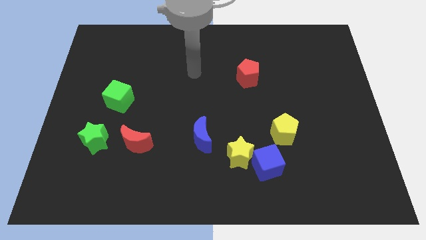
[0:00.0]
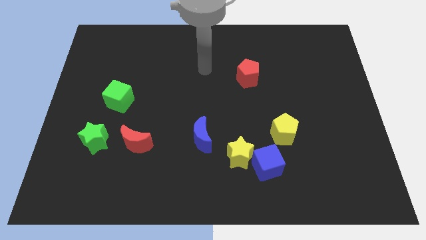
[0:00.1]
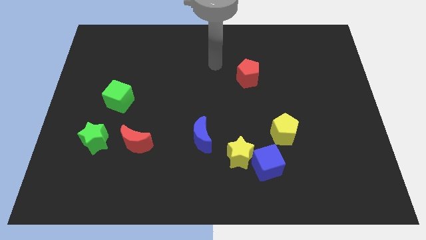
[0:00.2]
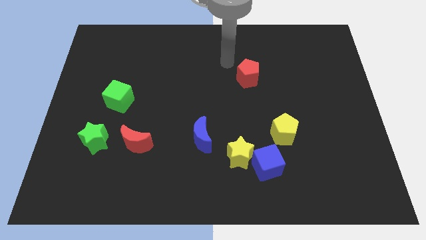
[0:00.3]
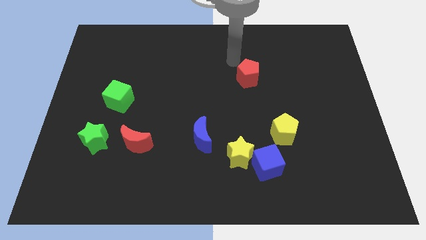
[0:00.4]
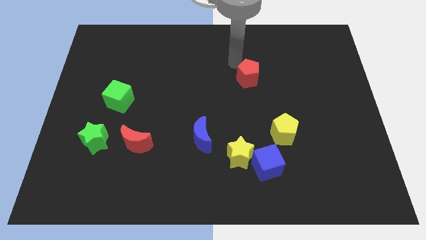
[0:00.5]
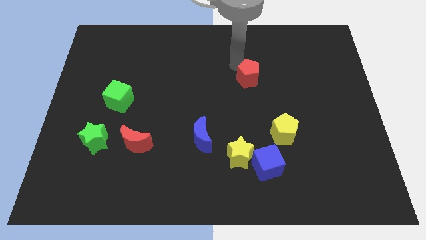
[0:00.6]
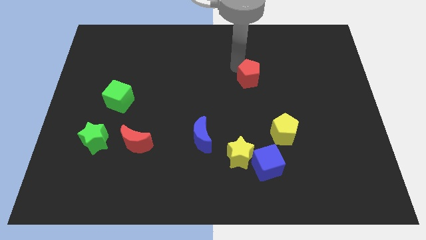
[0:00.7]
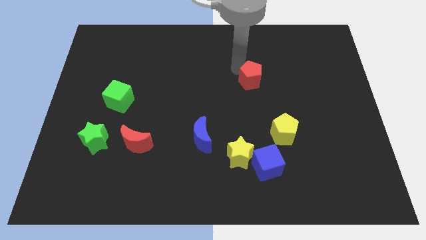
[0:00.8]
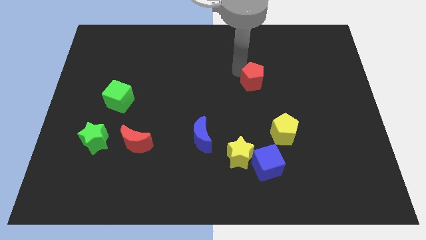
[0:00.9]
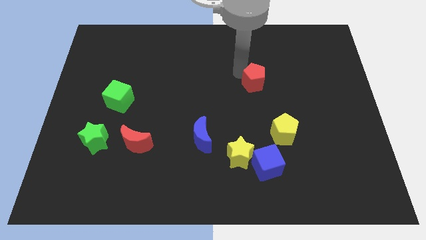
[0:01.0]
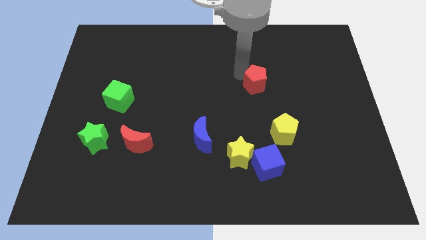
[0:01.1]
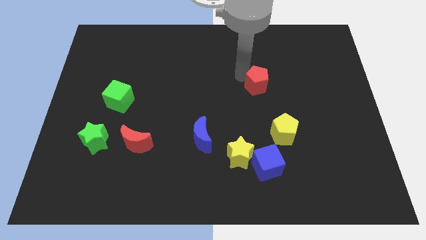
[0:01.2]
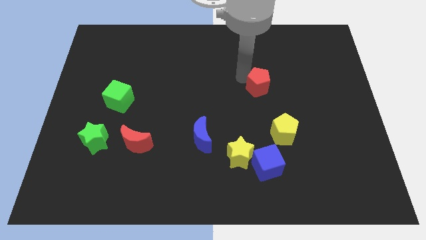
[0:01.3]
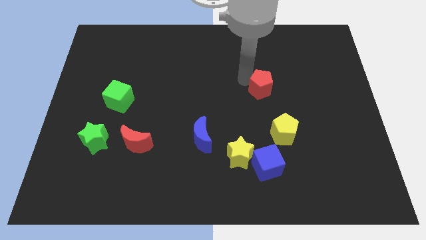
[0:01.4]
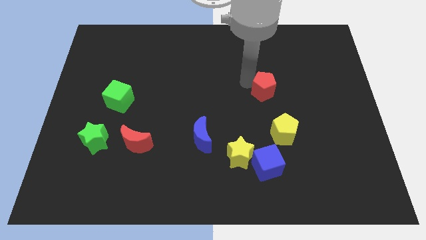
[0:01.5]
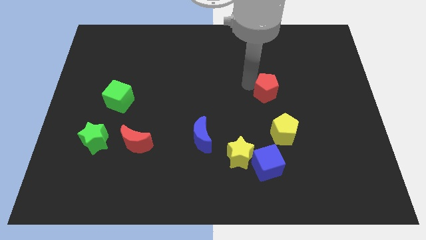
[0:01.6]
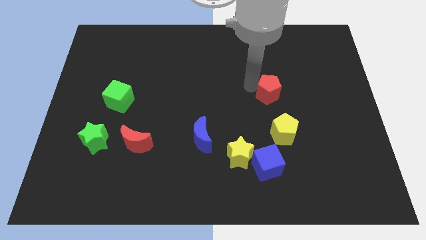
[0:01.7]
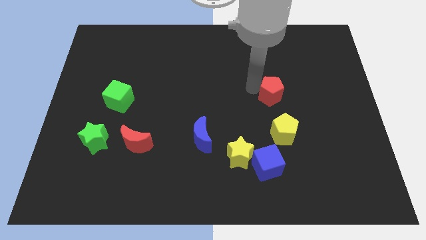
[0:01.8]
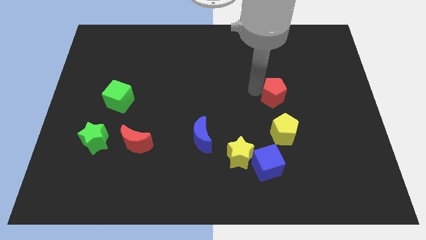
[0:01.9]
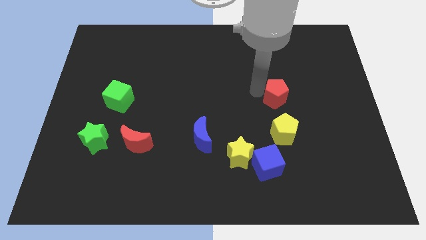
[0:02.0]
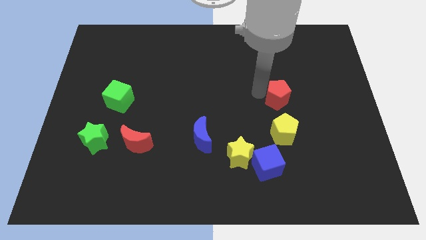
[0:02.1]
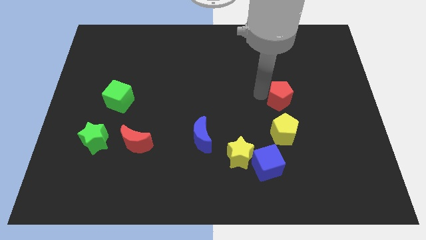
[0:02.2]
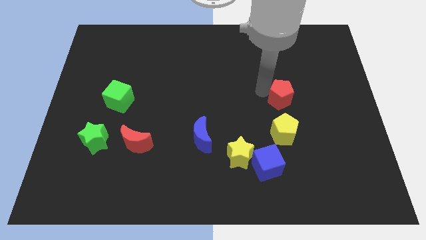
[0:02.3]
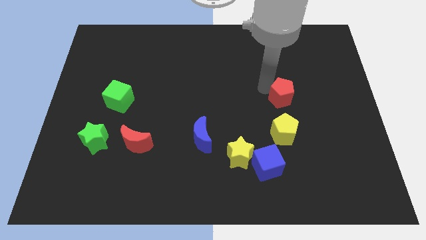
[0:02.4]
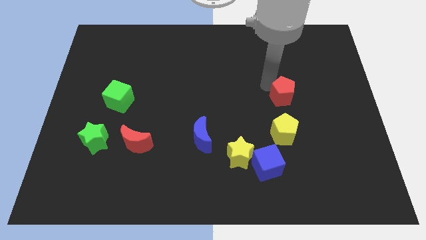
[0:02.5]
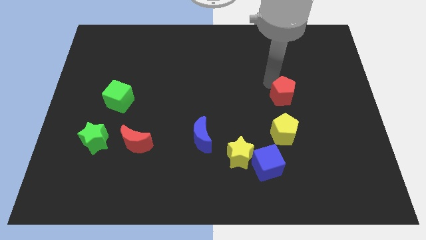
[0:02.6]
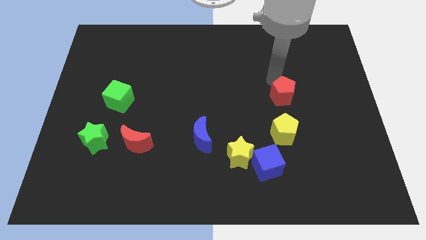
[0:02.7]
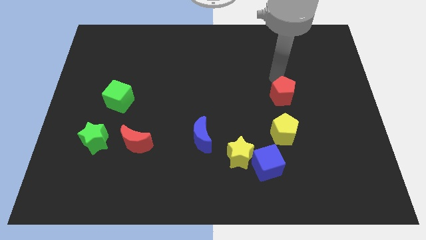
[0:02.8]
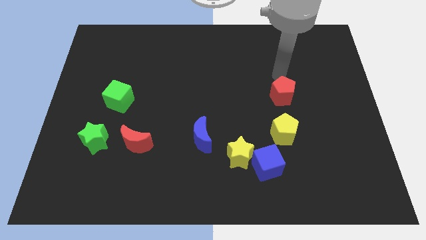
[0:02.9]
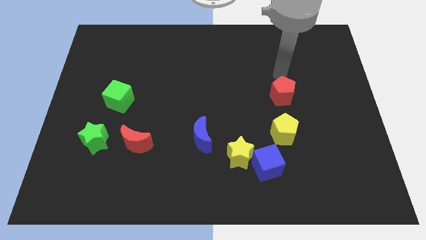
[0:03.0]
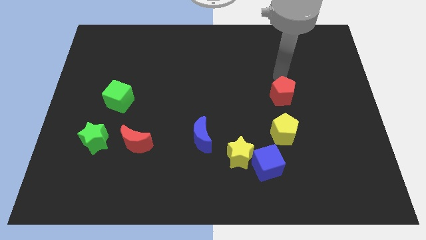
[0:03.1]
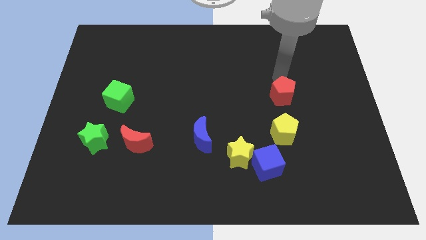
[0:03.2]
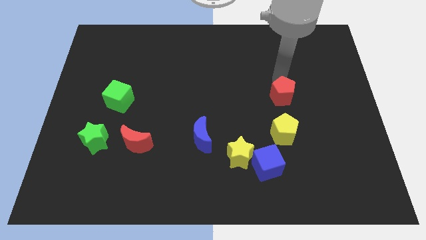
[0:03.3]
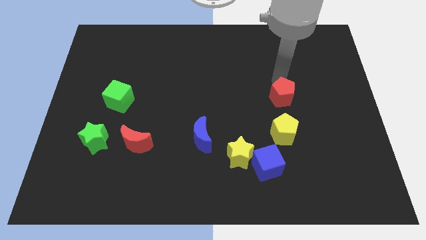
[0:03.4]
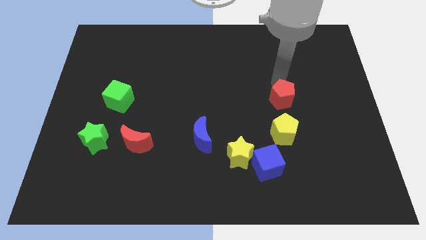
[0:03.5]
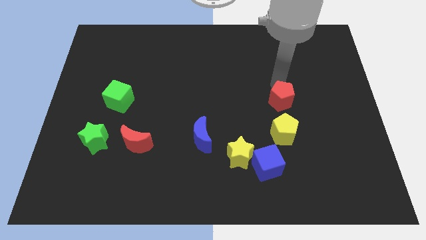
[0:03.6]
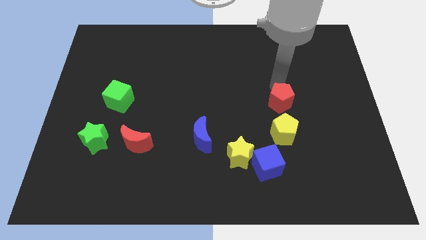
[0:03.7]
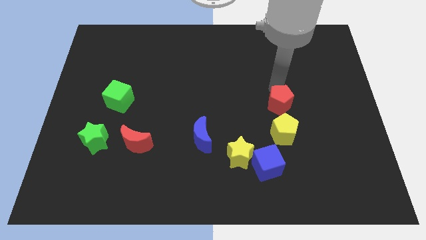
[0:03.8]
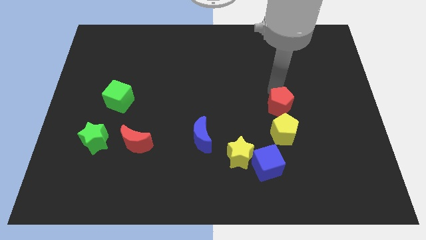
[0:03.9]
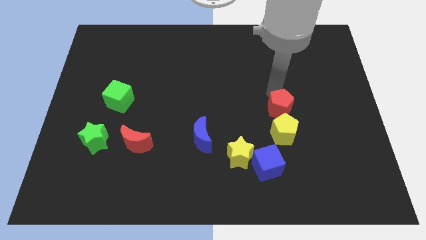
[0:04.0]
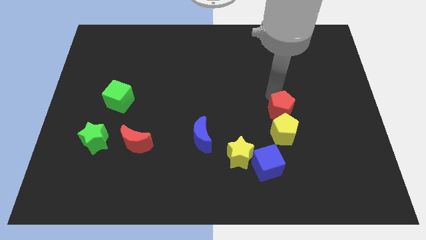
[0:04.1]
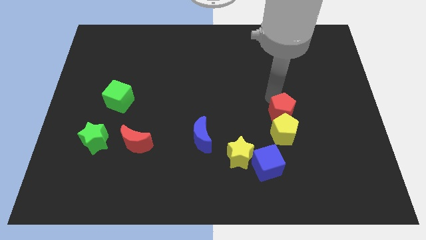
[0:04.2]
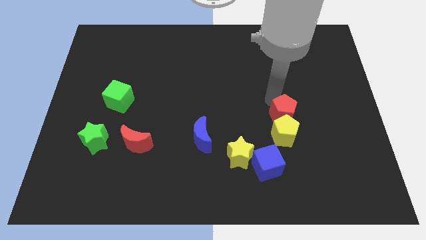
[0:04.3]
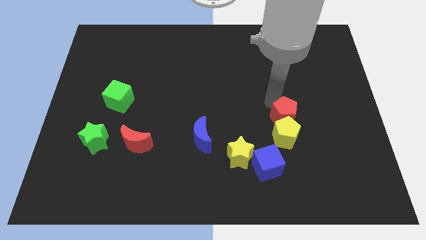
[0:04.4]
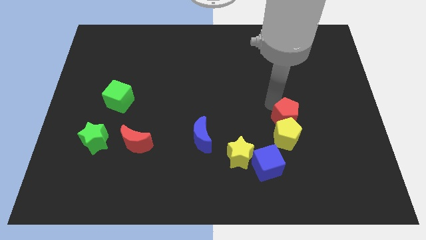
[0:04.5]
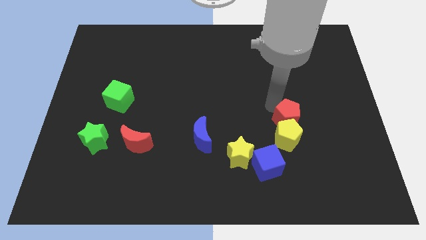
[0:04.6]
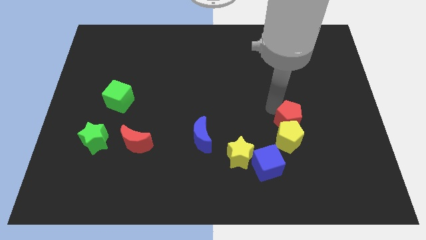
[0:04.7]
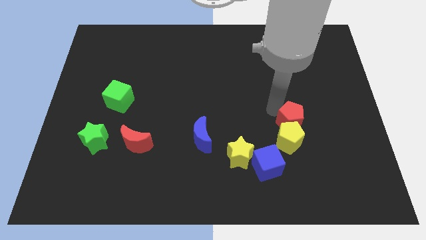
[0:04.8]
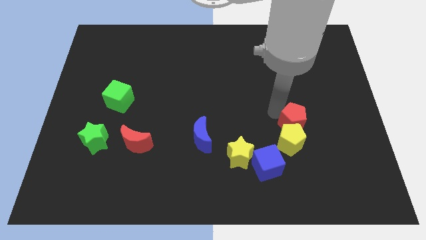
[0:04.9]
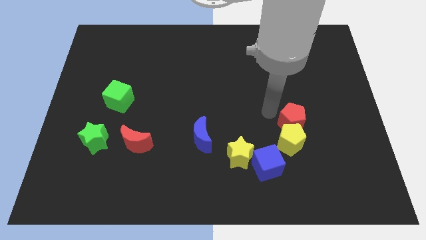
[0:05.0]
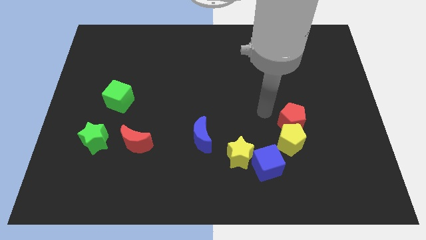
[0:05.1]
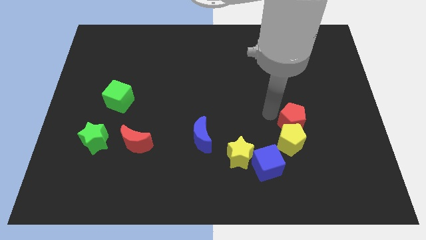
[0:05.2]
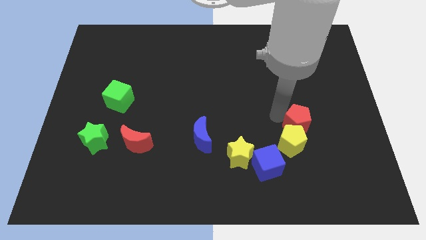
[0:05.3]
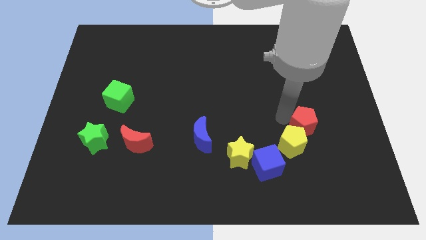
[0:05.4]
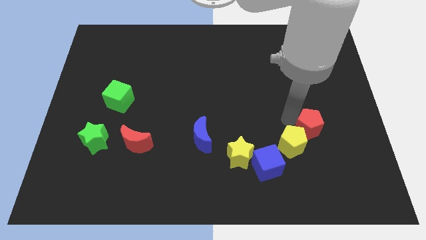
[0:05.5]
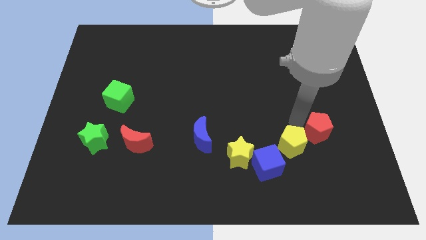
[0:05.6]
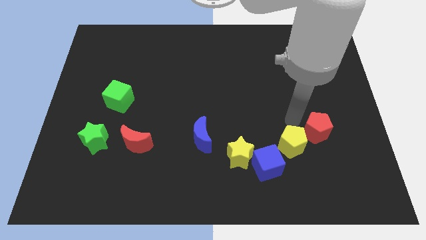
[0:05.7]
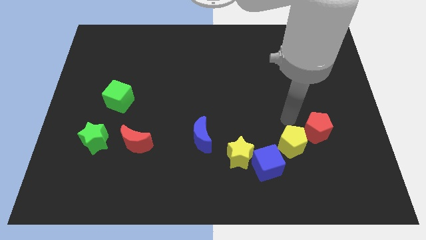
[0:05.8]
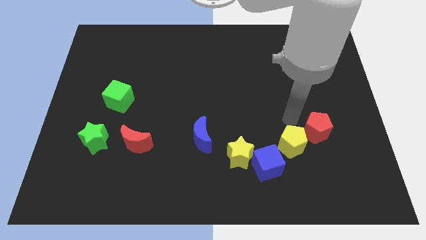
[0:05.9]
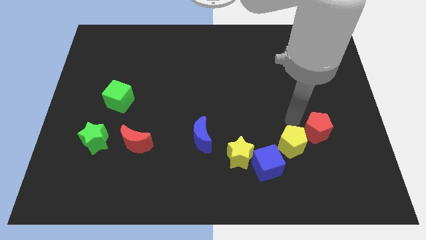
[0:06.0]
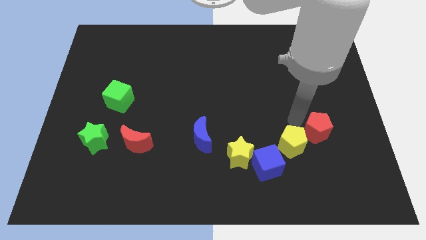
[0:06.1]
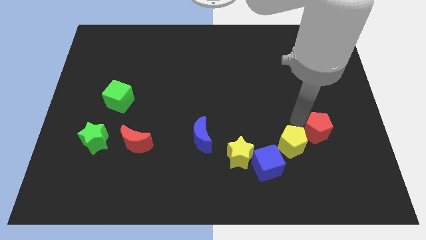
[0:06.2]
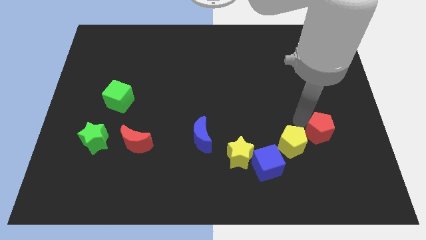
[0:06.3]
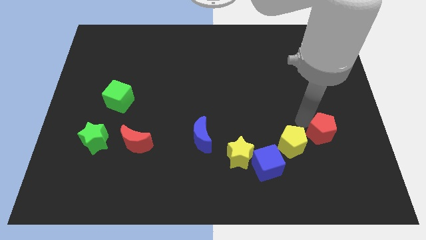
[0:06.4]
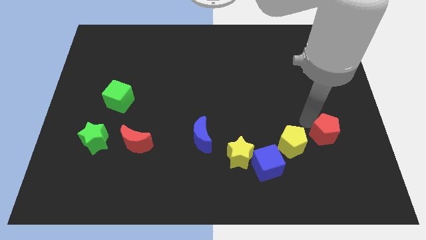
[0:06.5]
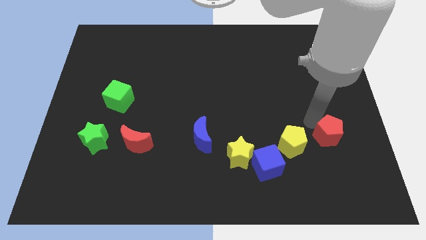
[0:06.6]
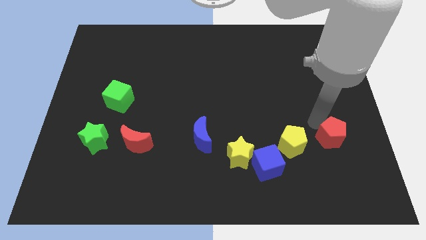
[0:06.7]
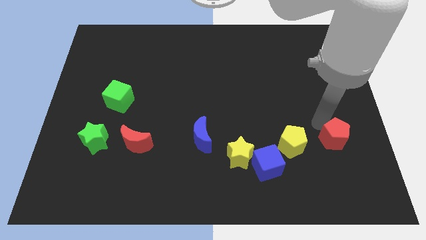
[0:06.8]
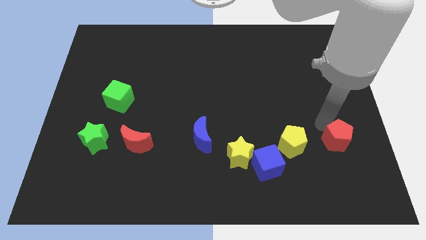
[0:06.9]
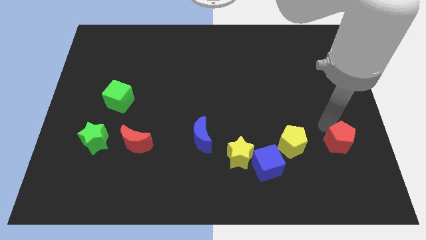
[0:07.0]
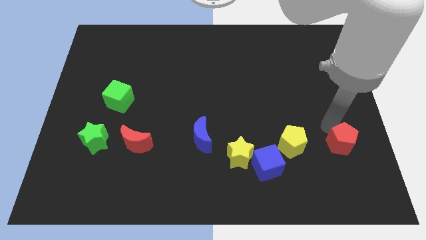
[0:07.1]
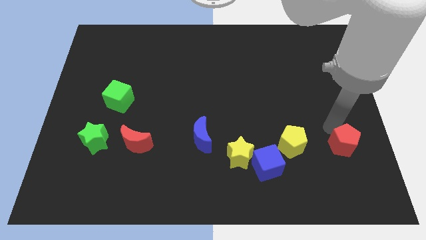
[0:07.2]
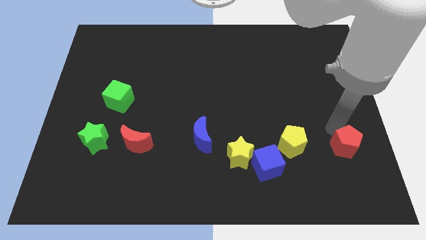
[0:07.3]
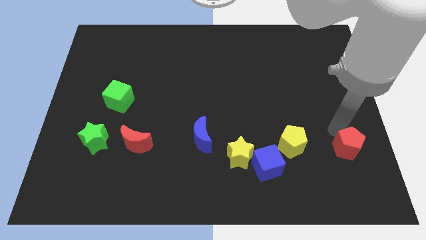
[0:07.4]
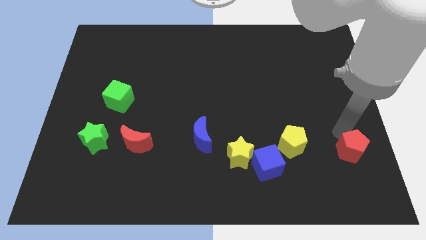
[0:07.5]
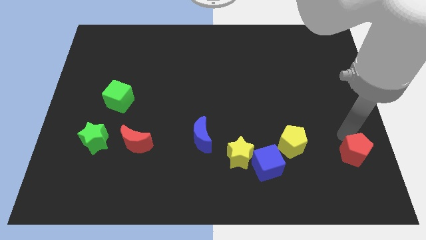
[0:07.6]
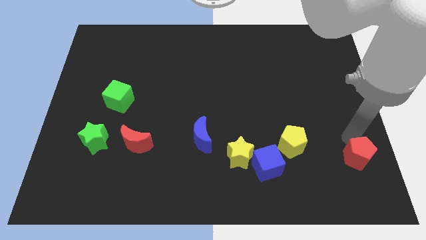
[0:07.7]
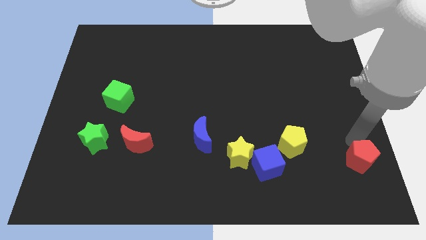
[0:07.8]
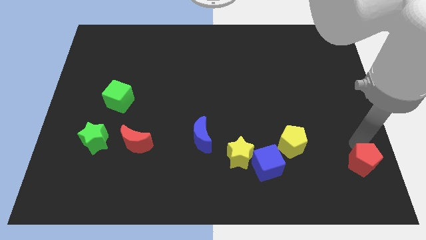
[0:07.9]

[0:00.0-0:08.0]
move the red pentagon to the bottom right
